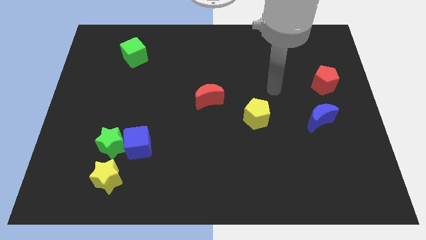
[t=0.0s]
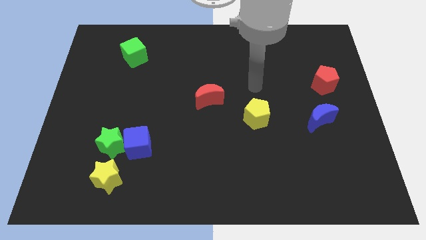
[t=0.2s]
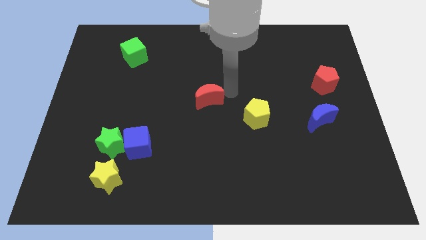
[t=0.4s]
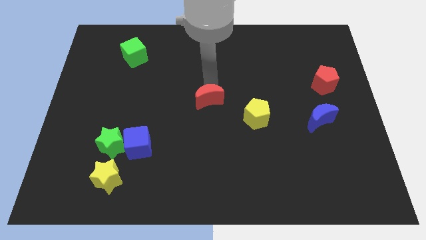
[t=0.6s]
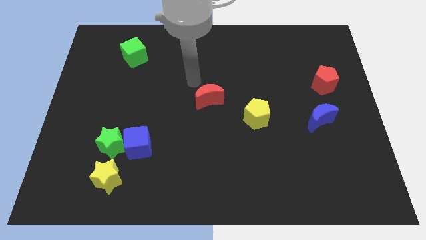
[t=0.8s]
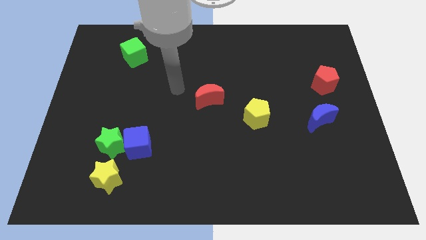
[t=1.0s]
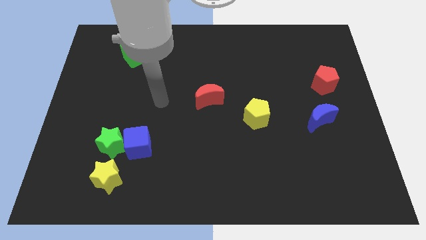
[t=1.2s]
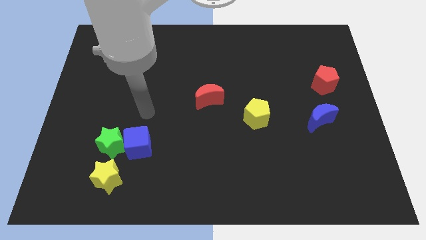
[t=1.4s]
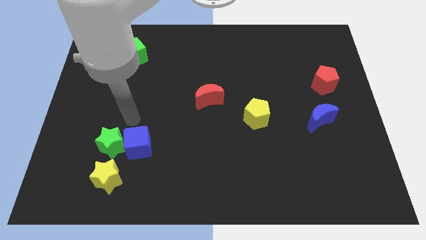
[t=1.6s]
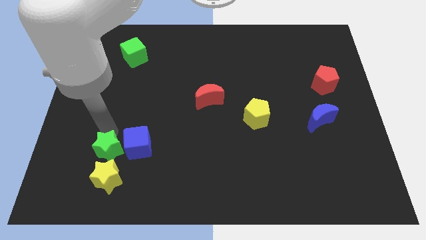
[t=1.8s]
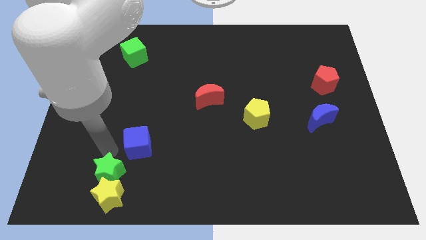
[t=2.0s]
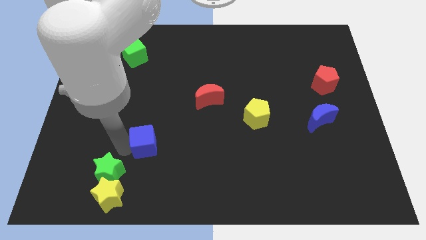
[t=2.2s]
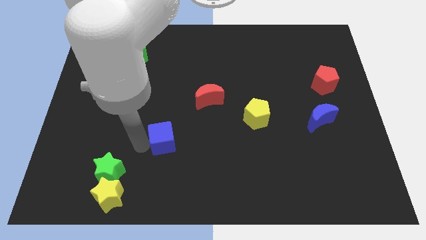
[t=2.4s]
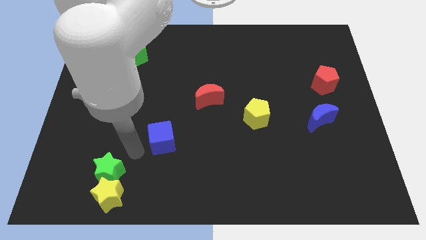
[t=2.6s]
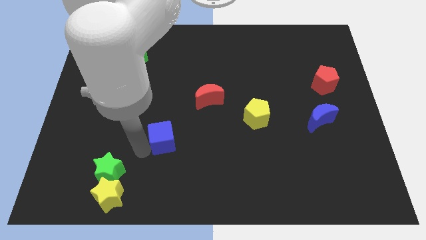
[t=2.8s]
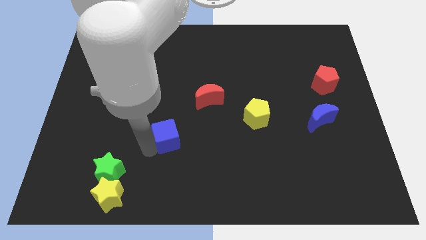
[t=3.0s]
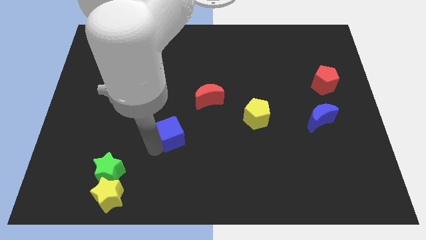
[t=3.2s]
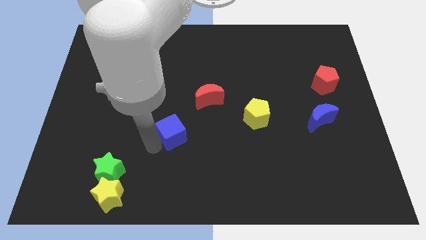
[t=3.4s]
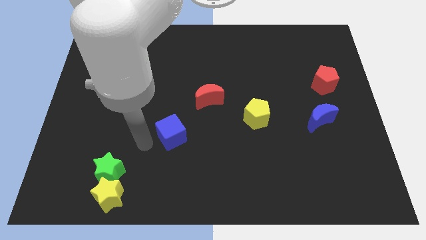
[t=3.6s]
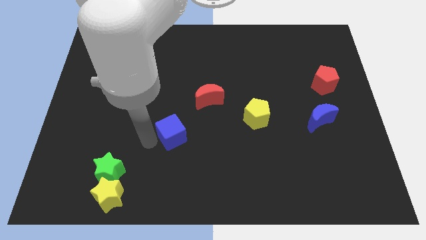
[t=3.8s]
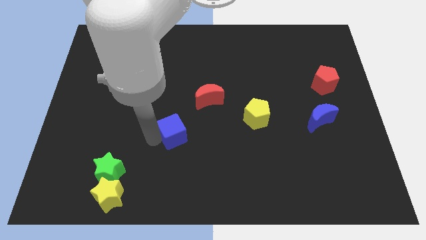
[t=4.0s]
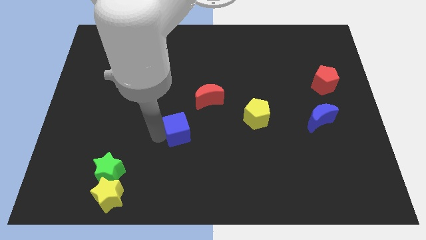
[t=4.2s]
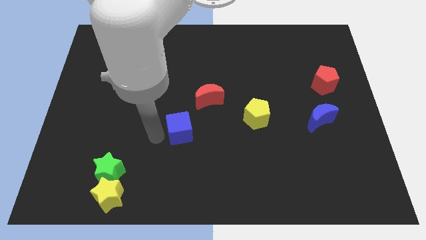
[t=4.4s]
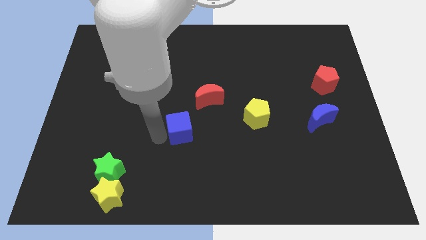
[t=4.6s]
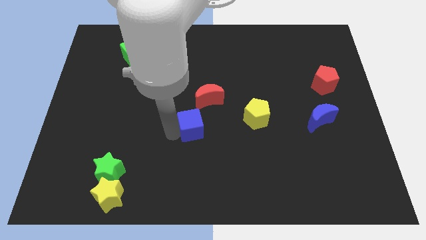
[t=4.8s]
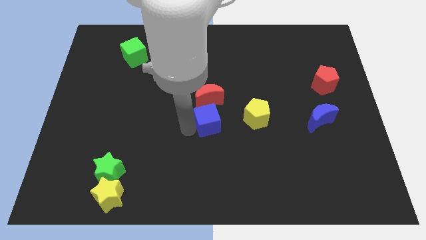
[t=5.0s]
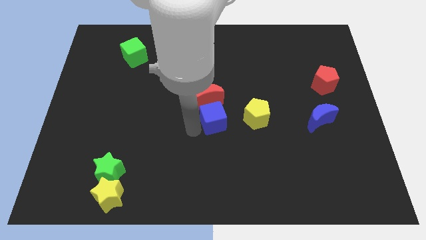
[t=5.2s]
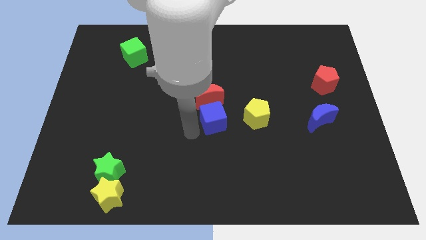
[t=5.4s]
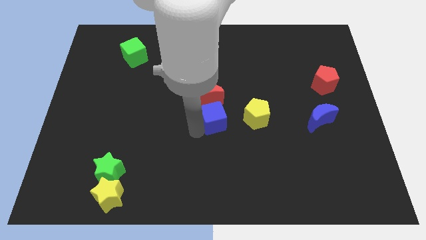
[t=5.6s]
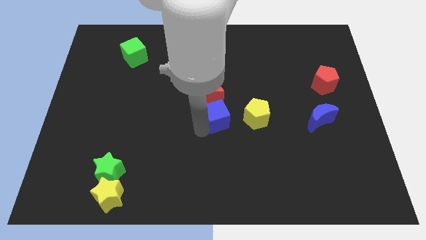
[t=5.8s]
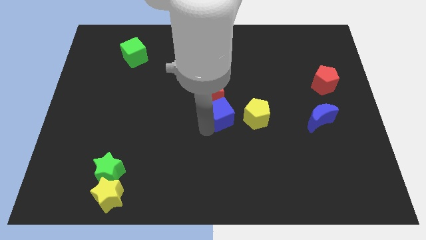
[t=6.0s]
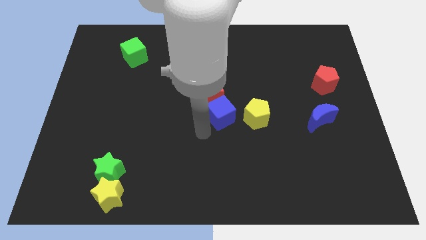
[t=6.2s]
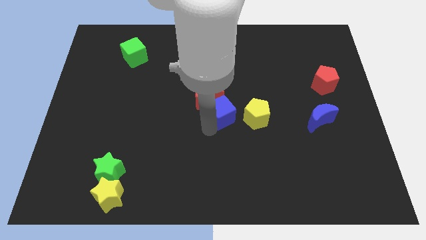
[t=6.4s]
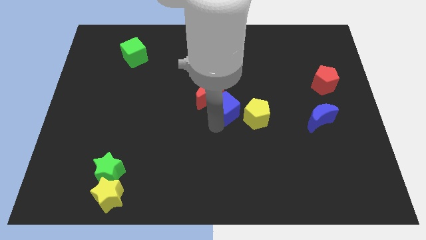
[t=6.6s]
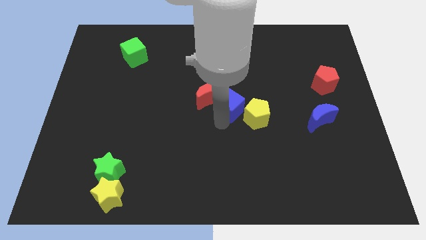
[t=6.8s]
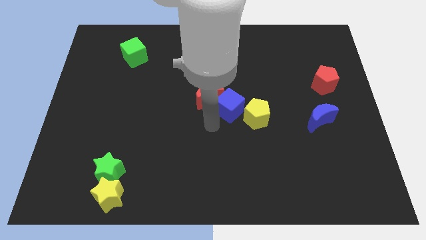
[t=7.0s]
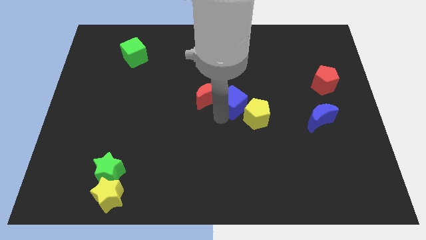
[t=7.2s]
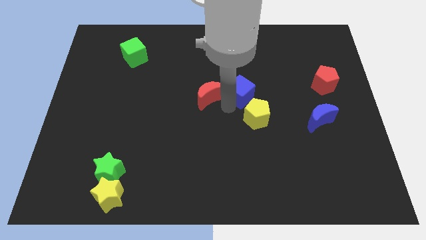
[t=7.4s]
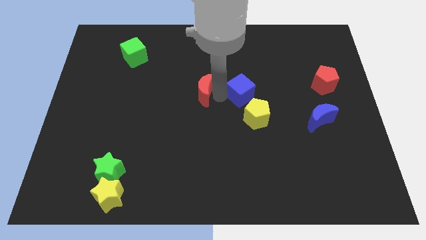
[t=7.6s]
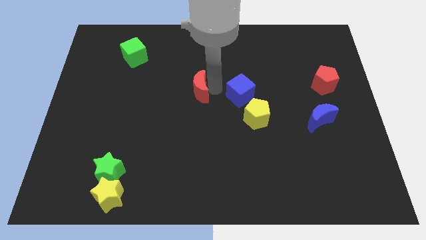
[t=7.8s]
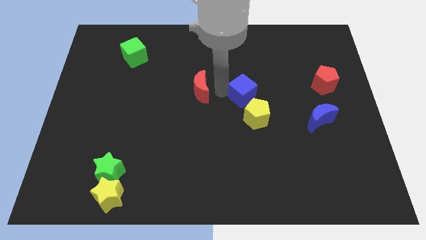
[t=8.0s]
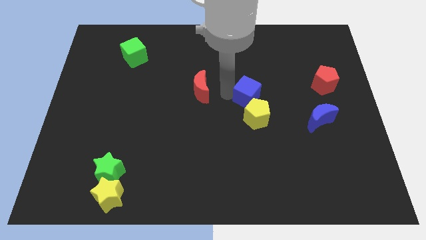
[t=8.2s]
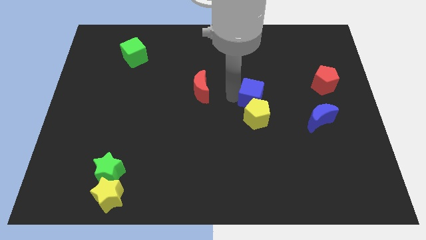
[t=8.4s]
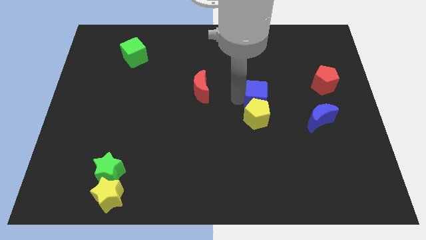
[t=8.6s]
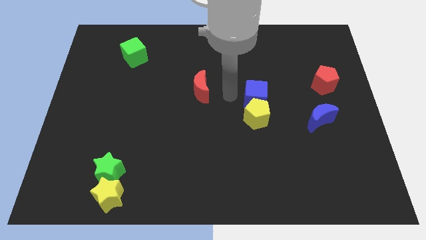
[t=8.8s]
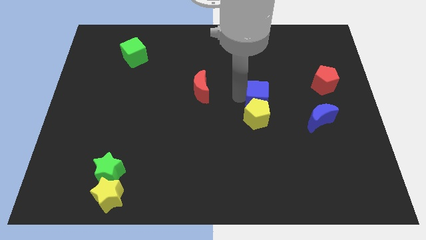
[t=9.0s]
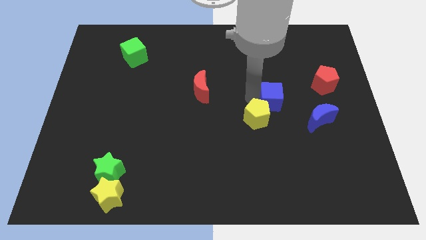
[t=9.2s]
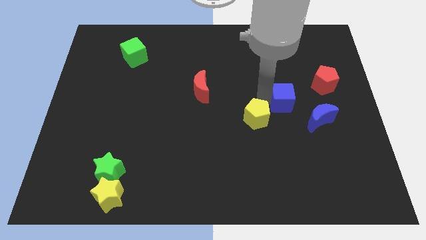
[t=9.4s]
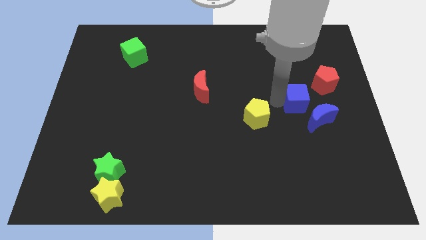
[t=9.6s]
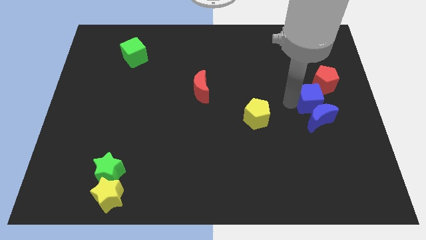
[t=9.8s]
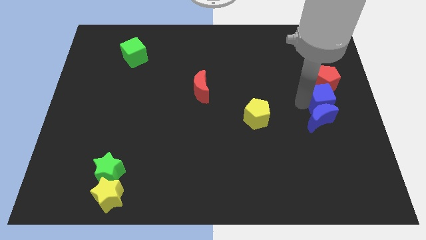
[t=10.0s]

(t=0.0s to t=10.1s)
slide the blue cube to the right side of the board

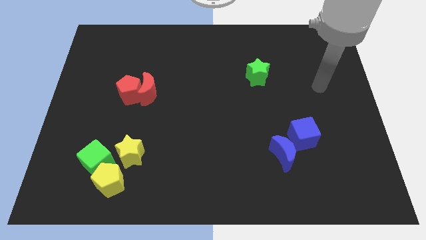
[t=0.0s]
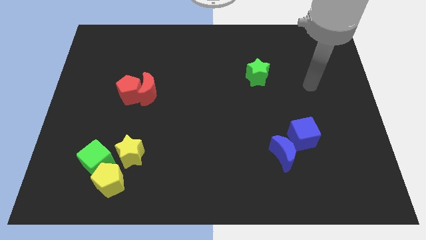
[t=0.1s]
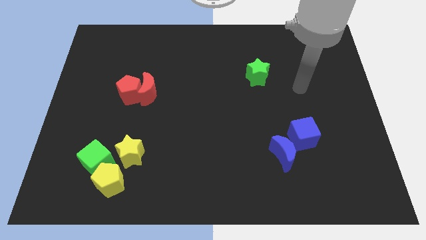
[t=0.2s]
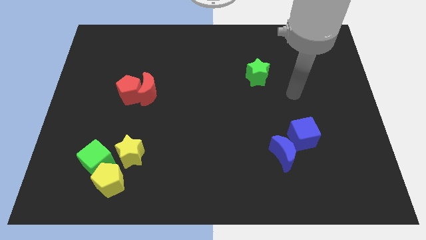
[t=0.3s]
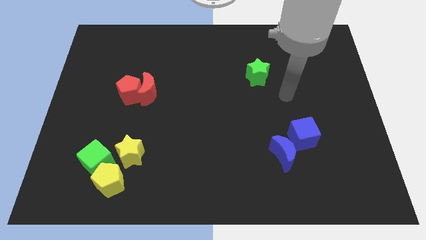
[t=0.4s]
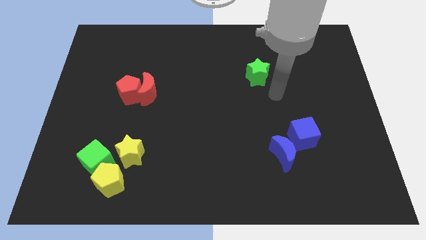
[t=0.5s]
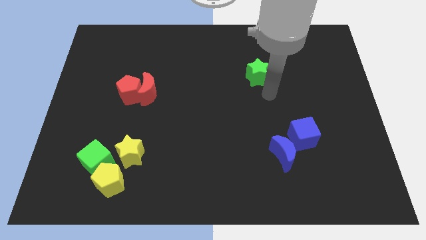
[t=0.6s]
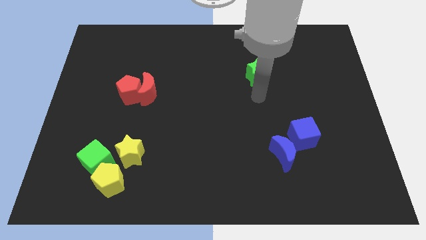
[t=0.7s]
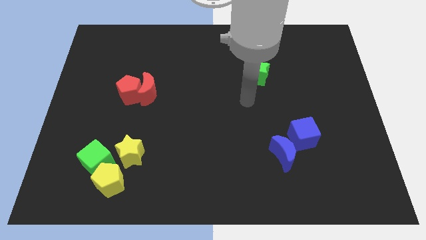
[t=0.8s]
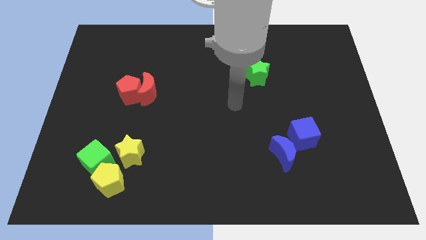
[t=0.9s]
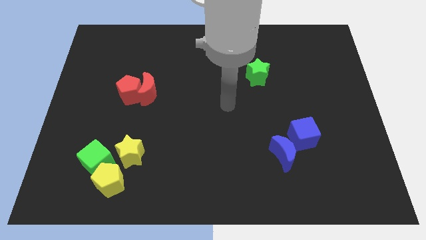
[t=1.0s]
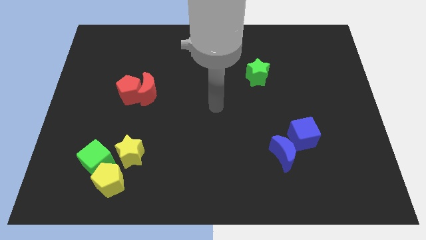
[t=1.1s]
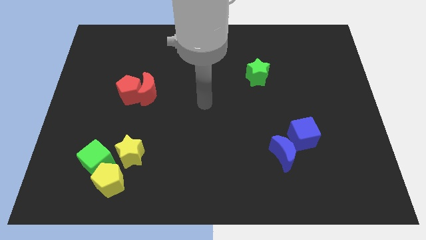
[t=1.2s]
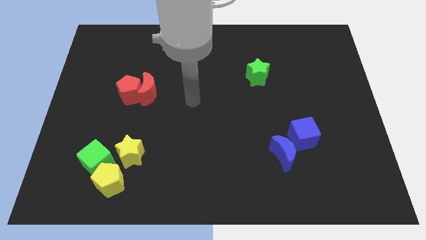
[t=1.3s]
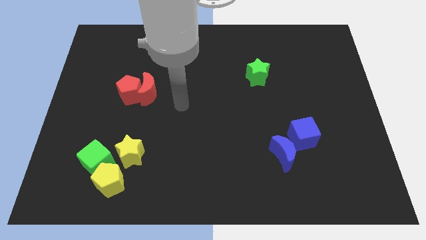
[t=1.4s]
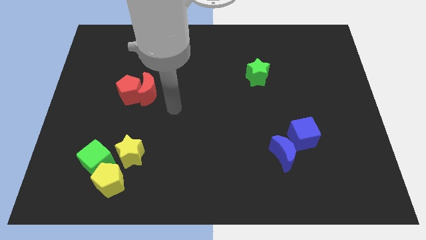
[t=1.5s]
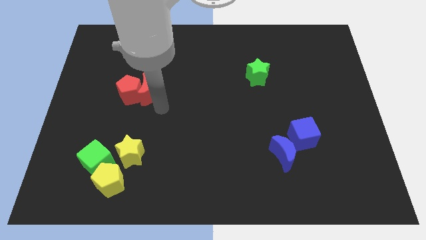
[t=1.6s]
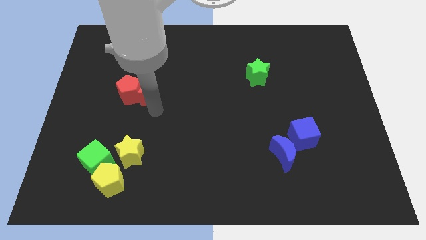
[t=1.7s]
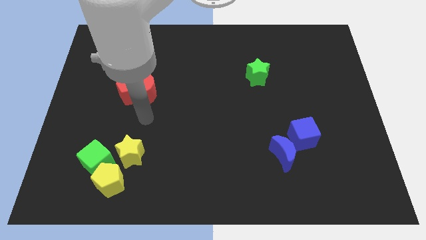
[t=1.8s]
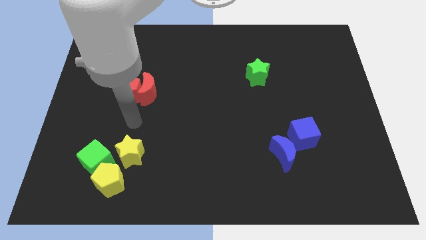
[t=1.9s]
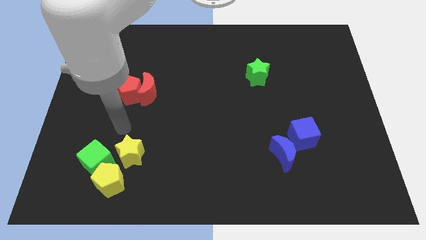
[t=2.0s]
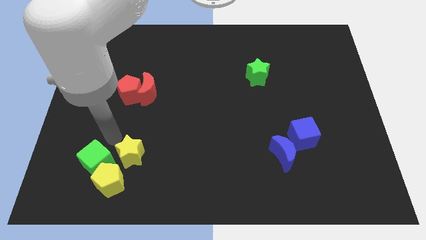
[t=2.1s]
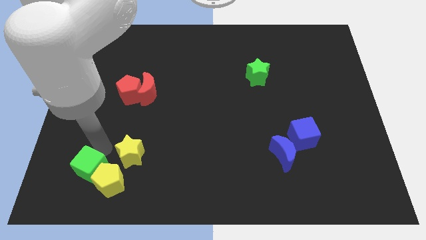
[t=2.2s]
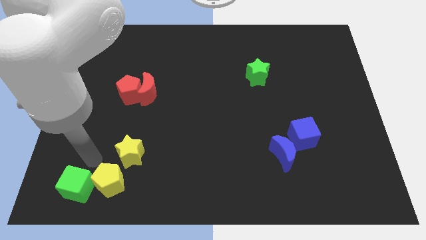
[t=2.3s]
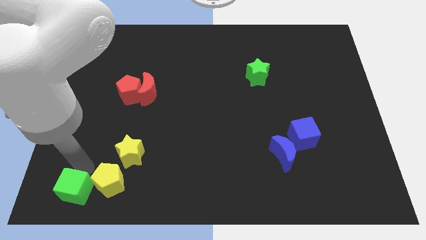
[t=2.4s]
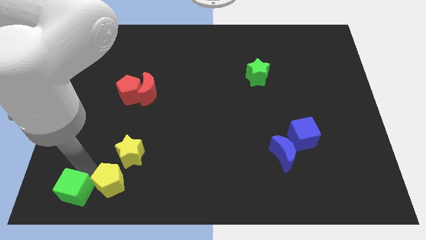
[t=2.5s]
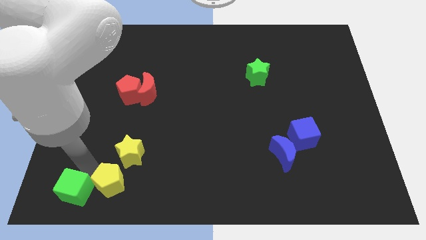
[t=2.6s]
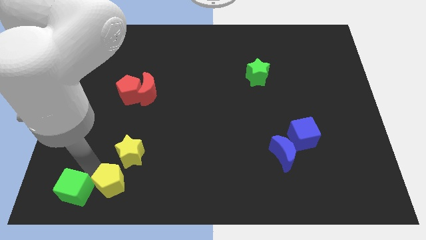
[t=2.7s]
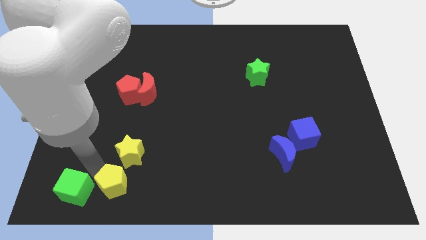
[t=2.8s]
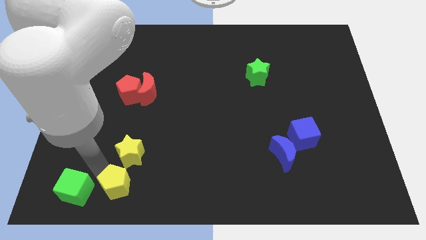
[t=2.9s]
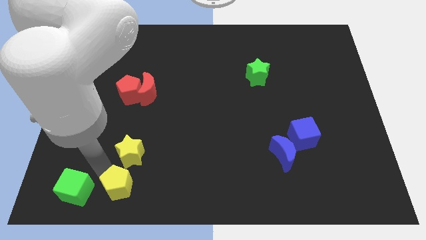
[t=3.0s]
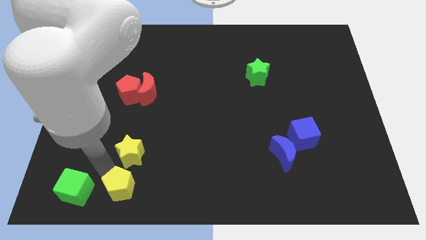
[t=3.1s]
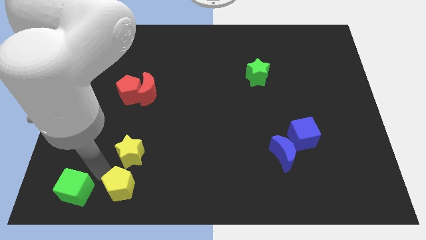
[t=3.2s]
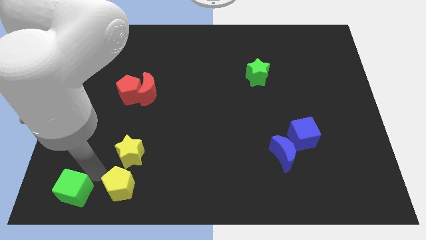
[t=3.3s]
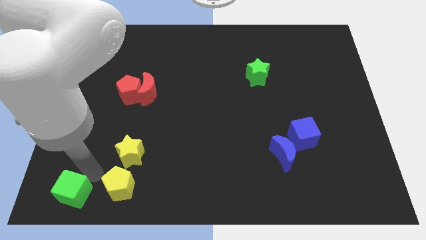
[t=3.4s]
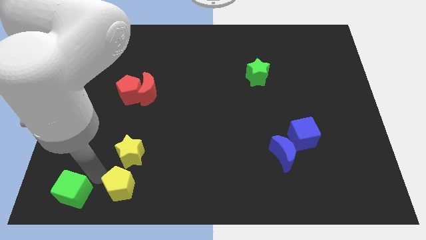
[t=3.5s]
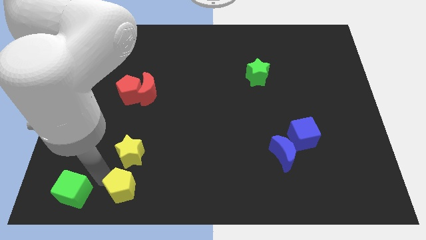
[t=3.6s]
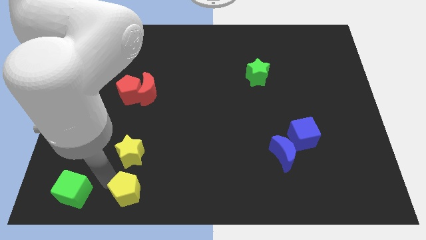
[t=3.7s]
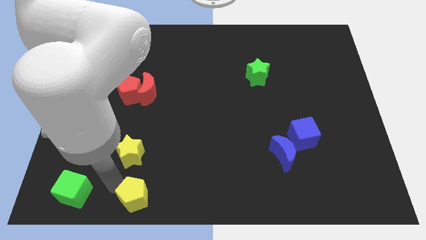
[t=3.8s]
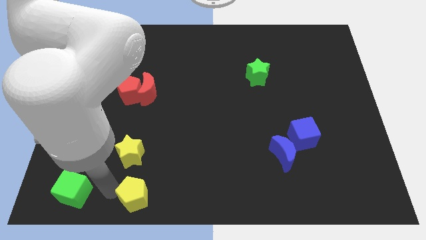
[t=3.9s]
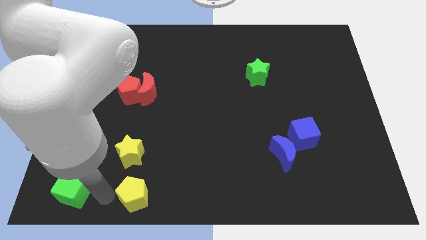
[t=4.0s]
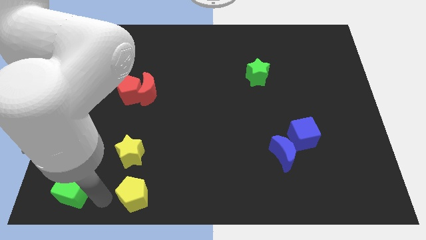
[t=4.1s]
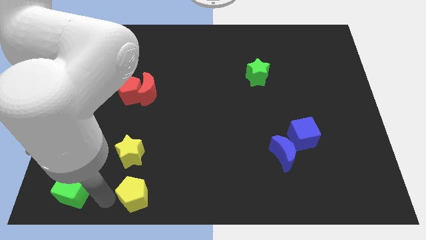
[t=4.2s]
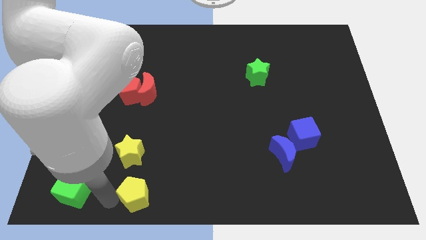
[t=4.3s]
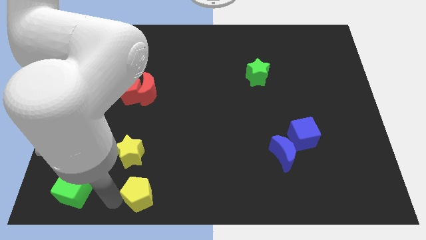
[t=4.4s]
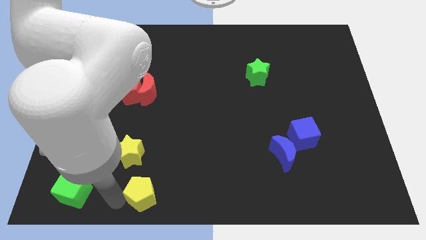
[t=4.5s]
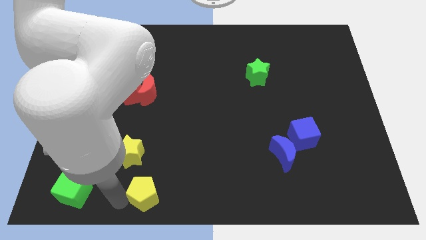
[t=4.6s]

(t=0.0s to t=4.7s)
slide the yellow pentagon to the bottom side
